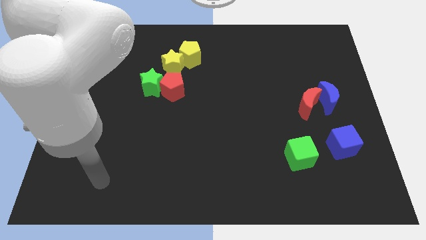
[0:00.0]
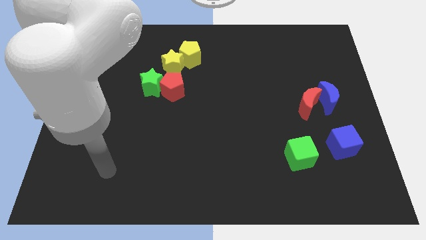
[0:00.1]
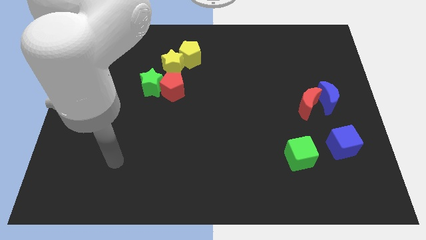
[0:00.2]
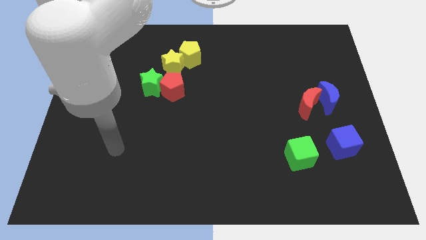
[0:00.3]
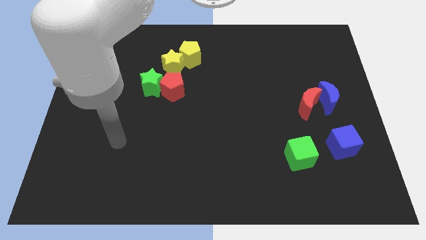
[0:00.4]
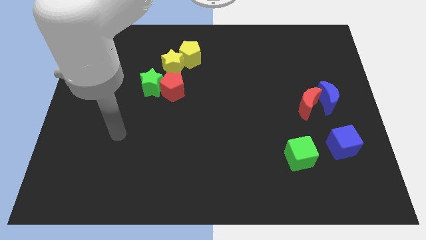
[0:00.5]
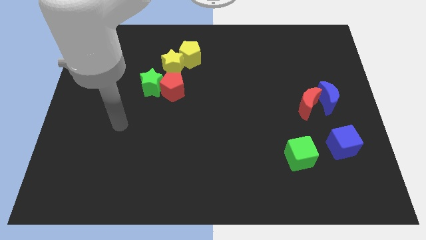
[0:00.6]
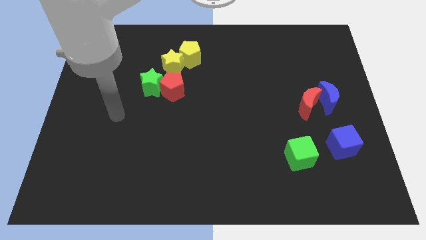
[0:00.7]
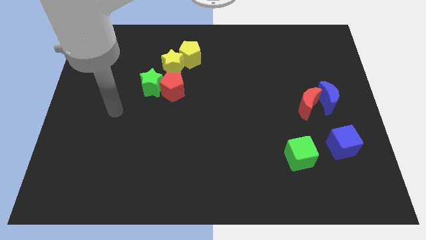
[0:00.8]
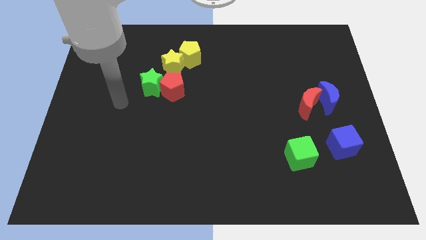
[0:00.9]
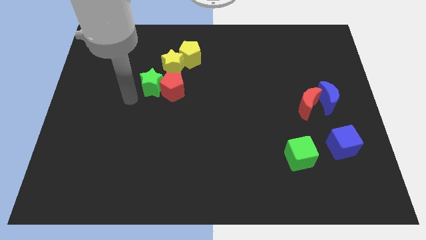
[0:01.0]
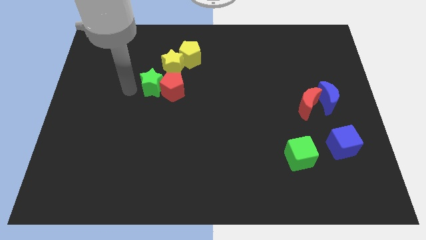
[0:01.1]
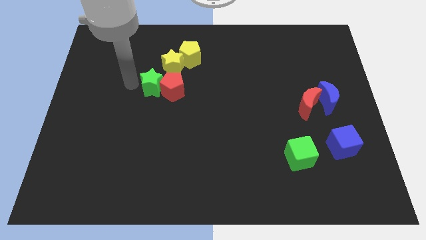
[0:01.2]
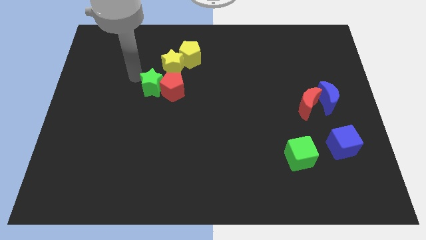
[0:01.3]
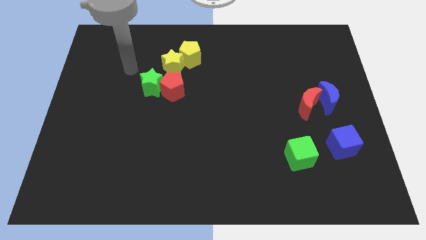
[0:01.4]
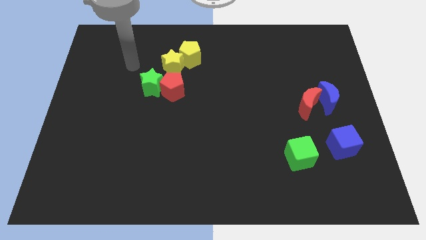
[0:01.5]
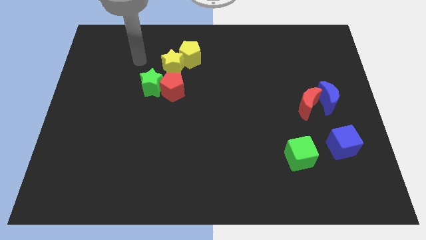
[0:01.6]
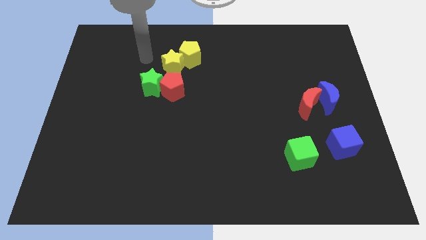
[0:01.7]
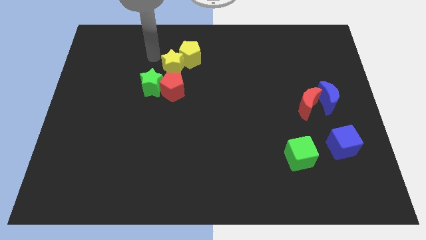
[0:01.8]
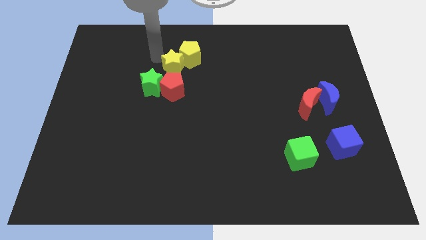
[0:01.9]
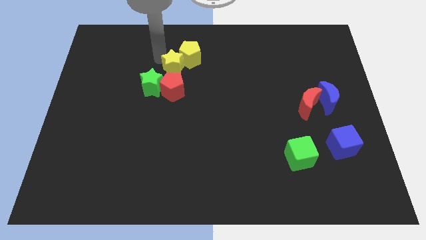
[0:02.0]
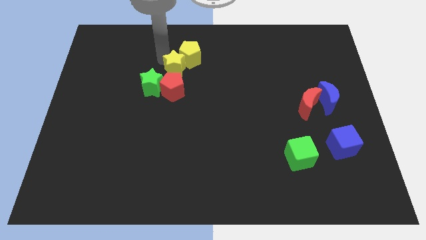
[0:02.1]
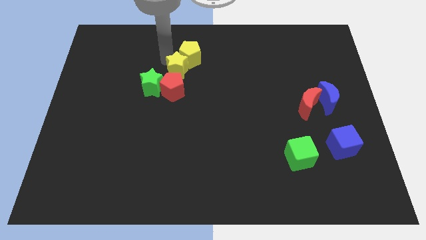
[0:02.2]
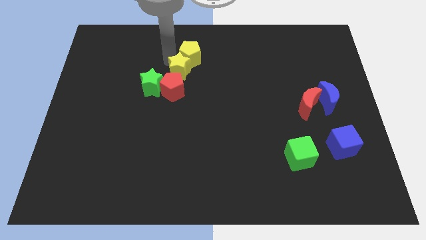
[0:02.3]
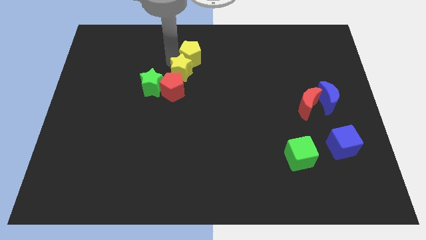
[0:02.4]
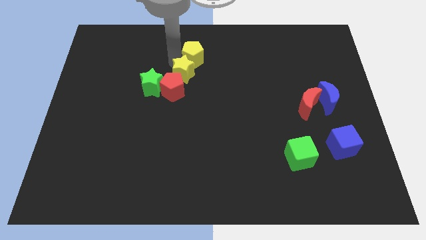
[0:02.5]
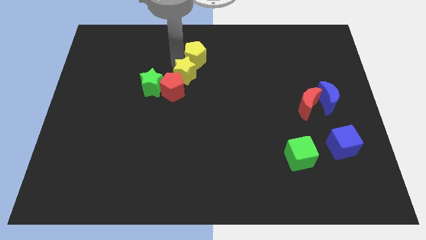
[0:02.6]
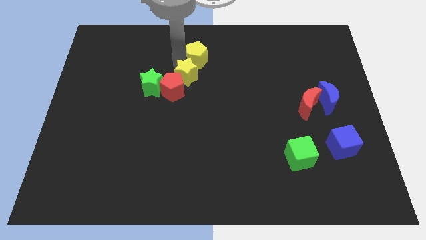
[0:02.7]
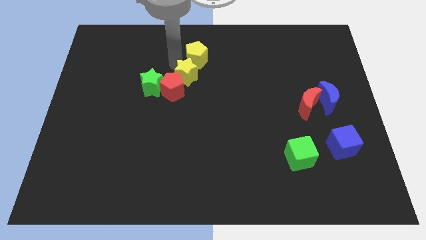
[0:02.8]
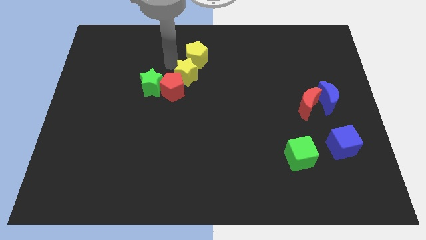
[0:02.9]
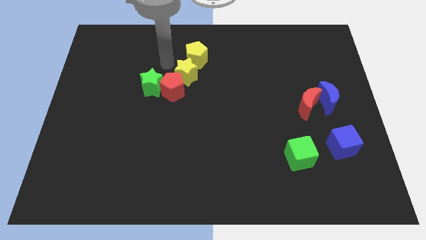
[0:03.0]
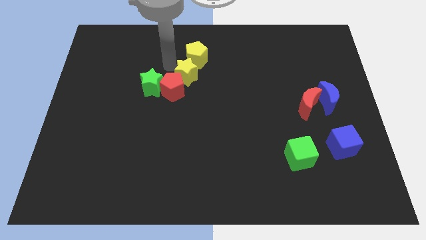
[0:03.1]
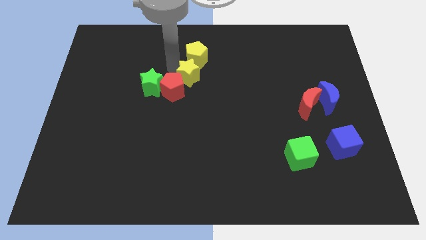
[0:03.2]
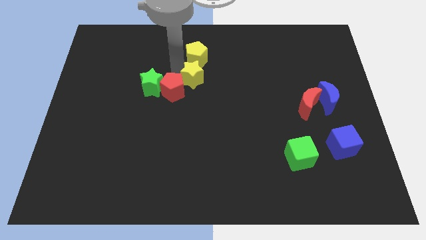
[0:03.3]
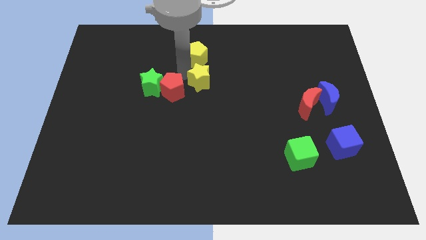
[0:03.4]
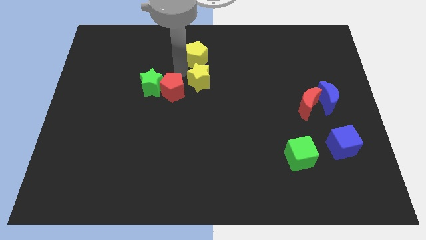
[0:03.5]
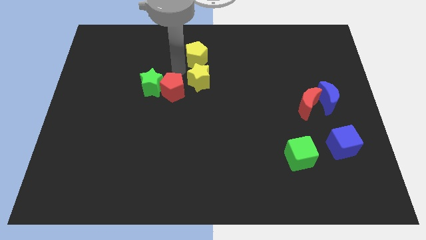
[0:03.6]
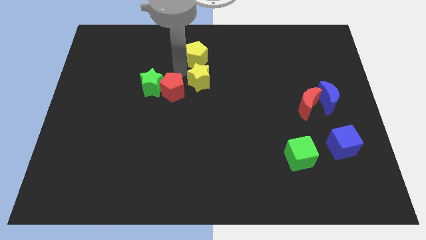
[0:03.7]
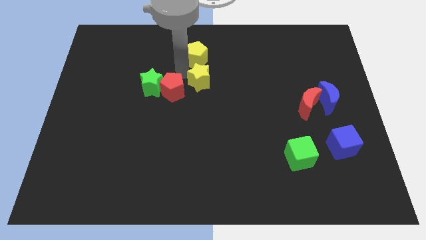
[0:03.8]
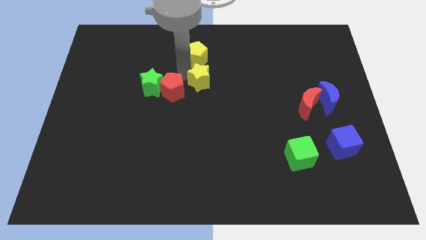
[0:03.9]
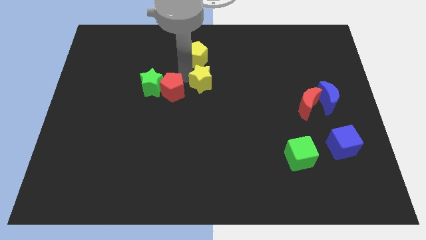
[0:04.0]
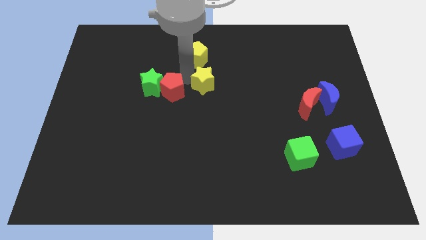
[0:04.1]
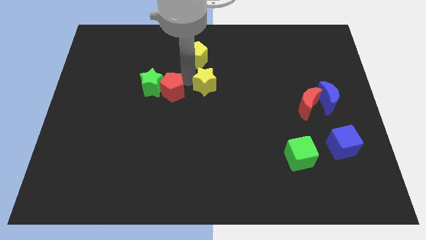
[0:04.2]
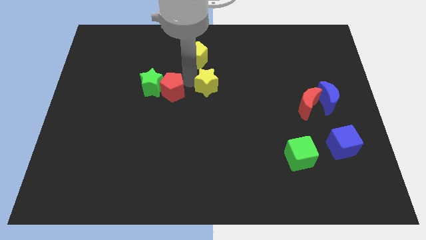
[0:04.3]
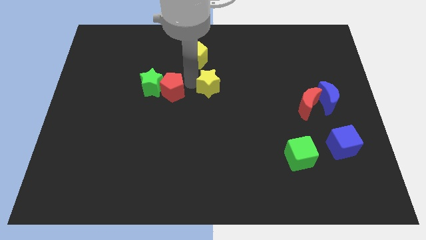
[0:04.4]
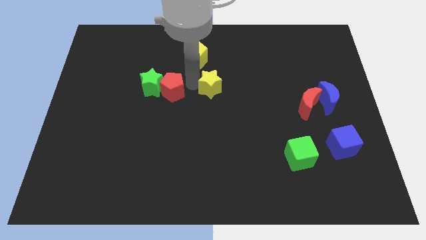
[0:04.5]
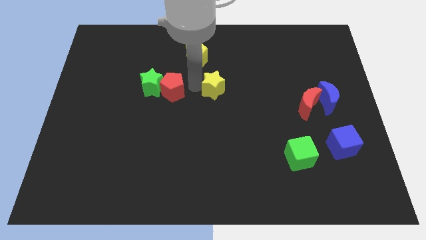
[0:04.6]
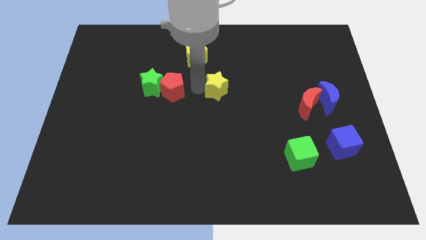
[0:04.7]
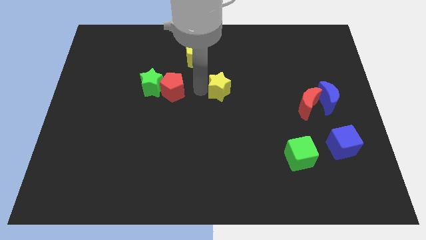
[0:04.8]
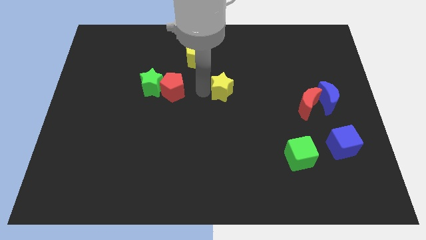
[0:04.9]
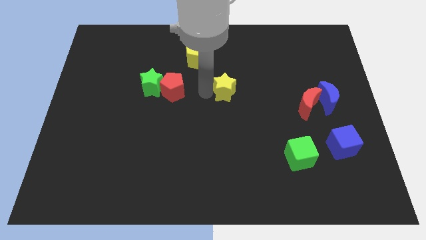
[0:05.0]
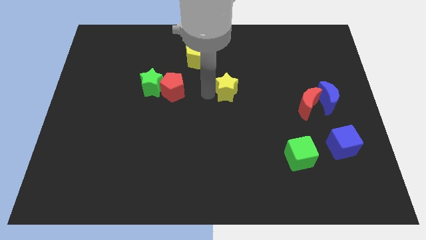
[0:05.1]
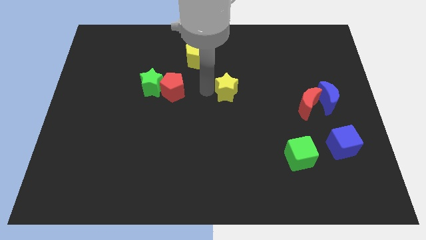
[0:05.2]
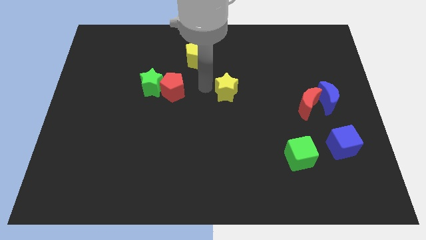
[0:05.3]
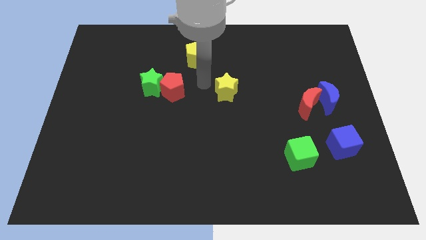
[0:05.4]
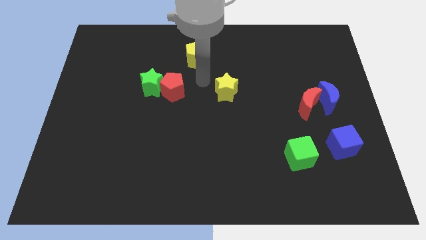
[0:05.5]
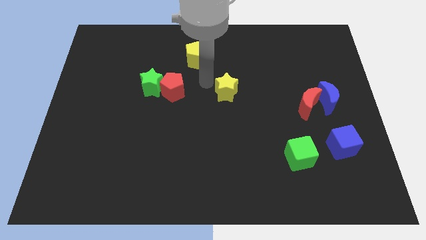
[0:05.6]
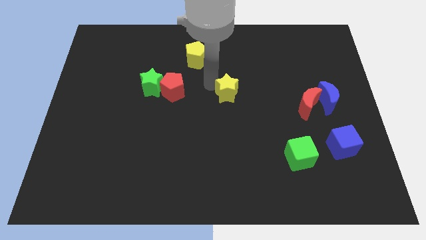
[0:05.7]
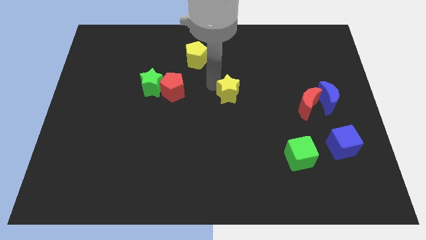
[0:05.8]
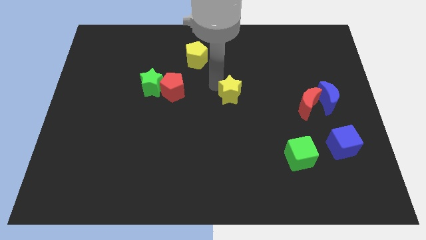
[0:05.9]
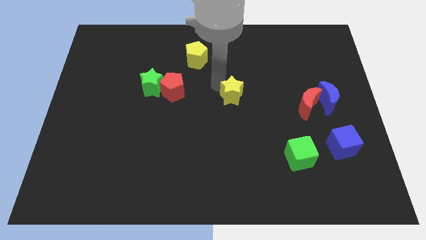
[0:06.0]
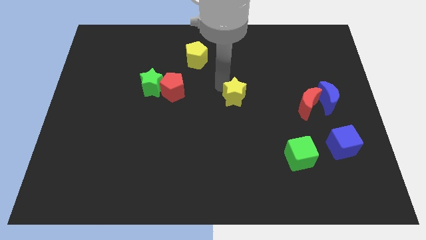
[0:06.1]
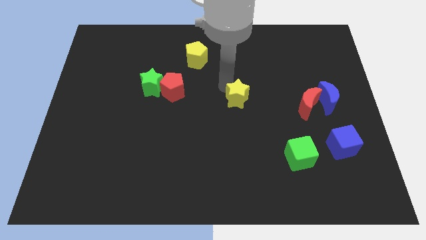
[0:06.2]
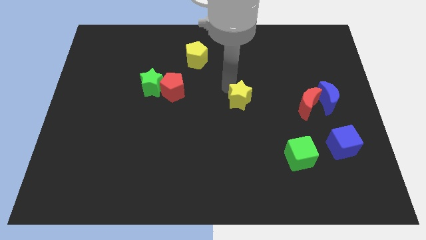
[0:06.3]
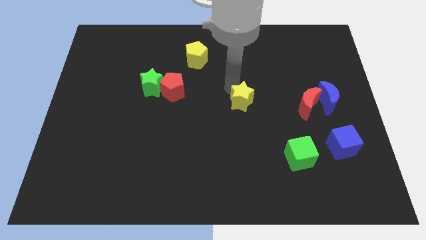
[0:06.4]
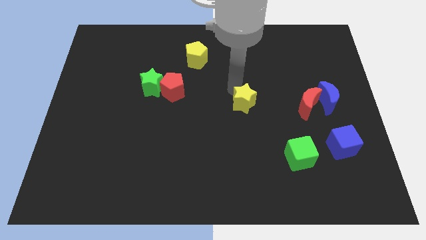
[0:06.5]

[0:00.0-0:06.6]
slide the yellow star down and right

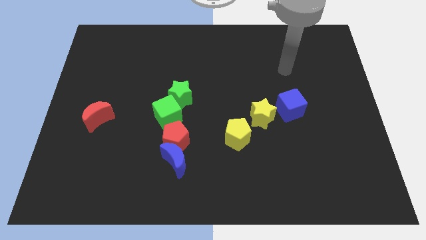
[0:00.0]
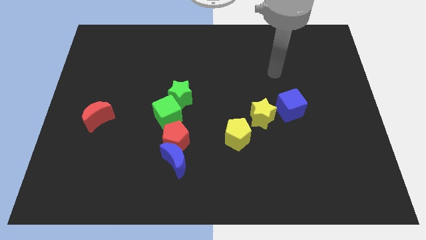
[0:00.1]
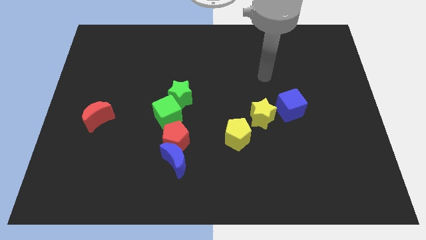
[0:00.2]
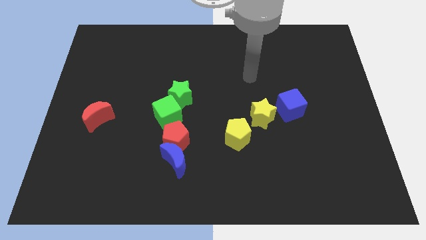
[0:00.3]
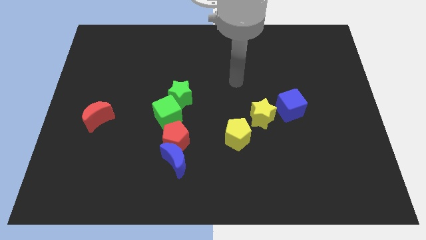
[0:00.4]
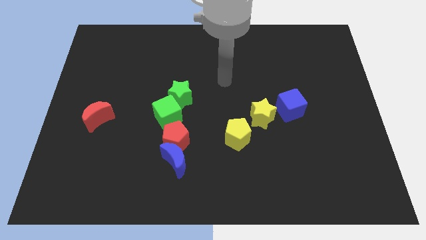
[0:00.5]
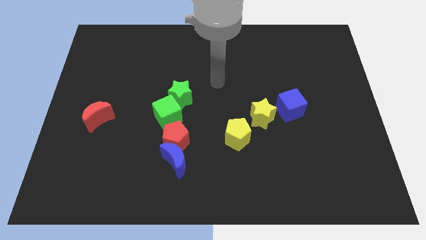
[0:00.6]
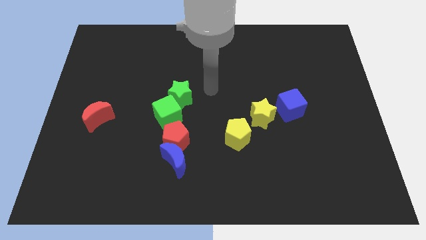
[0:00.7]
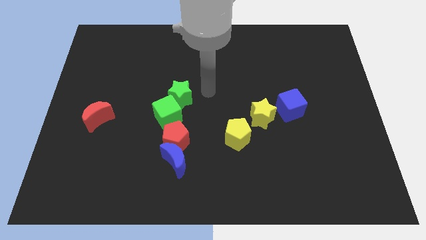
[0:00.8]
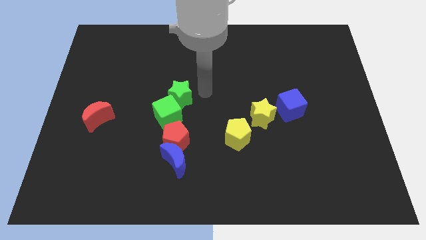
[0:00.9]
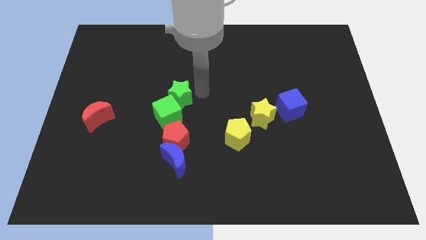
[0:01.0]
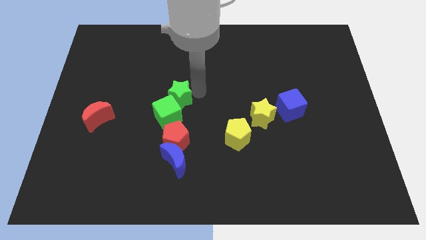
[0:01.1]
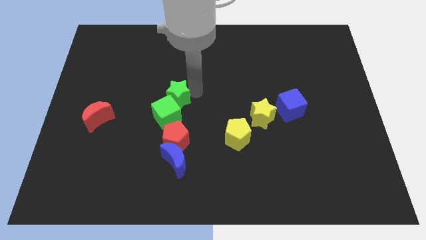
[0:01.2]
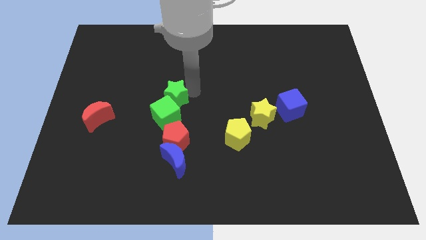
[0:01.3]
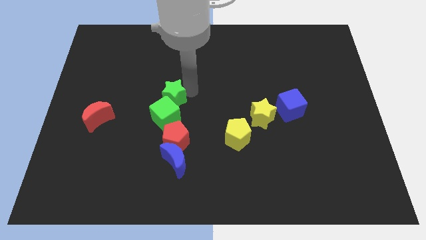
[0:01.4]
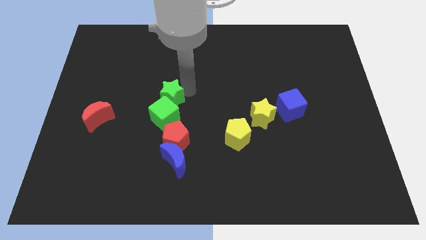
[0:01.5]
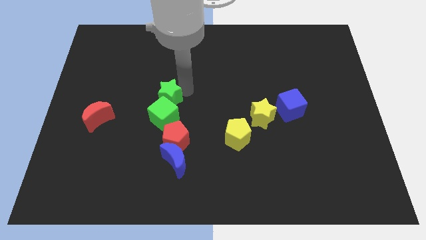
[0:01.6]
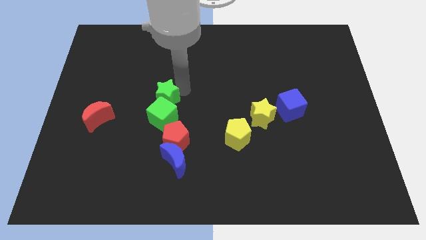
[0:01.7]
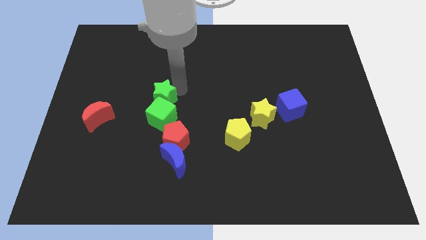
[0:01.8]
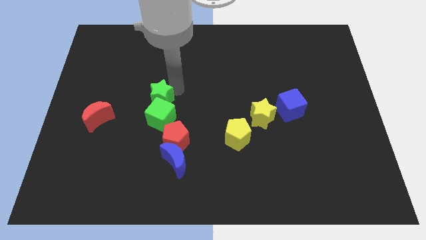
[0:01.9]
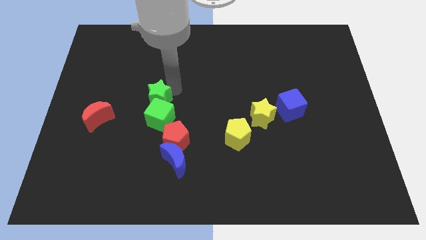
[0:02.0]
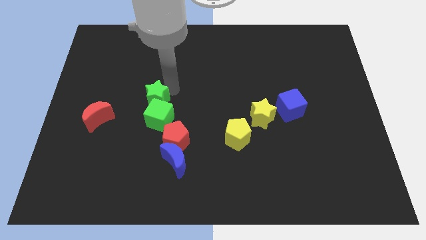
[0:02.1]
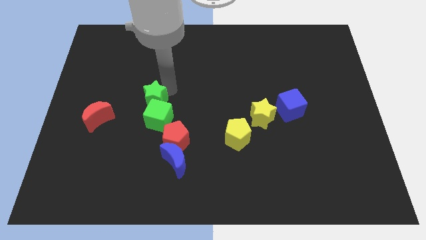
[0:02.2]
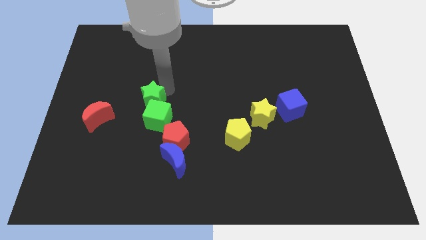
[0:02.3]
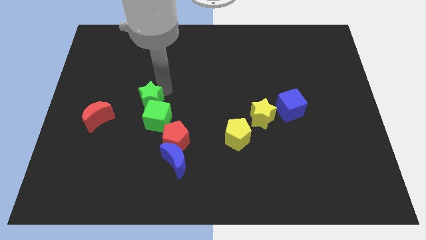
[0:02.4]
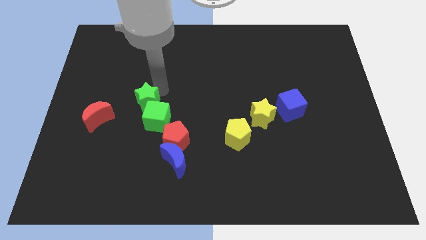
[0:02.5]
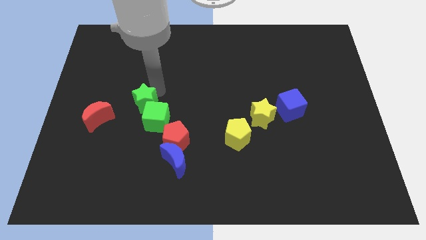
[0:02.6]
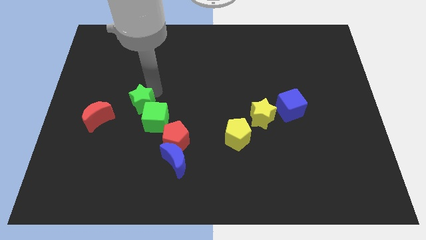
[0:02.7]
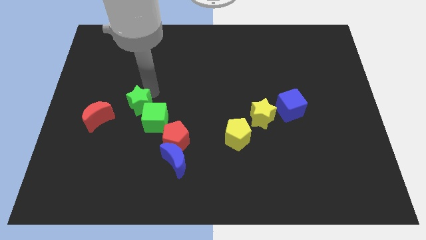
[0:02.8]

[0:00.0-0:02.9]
push the green star somewhat downwards and then left
